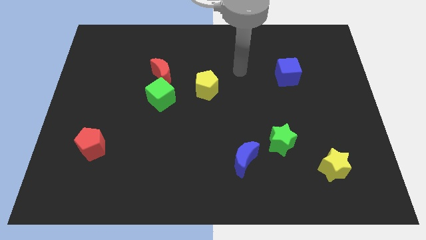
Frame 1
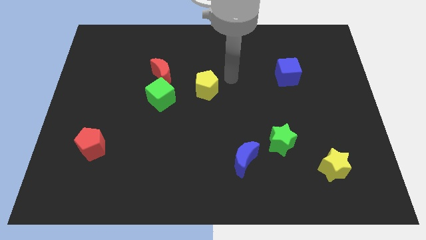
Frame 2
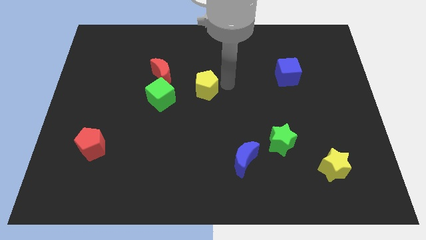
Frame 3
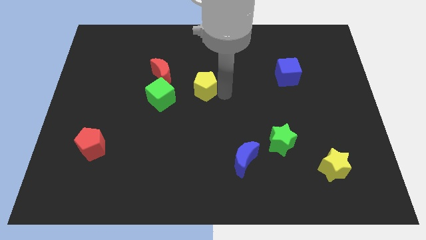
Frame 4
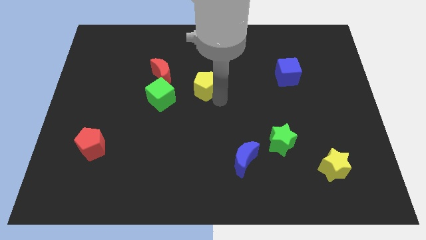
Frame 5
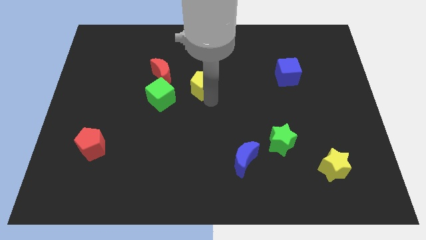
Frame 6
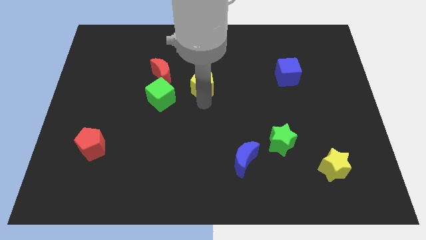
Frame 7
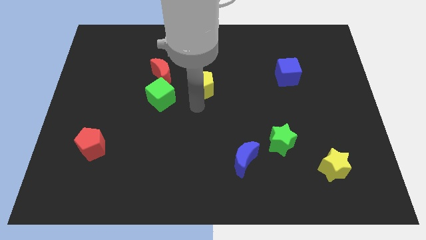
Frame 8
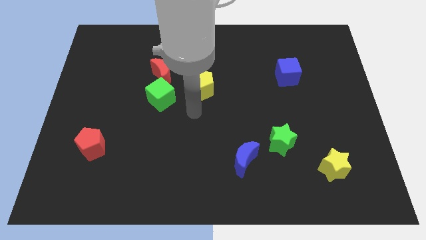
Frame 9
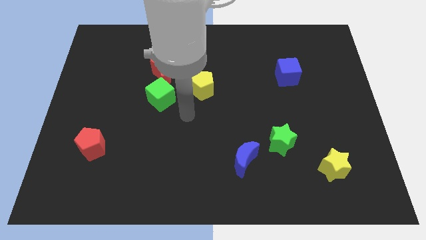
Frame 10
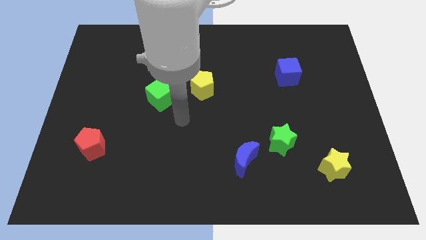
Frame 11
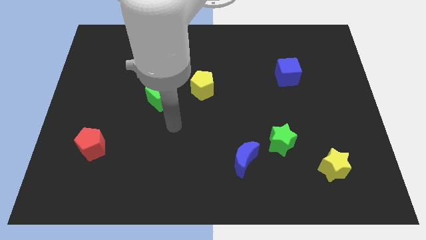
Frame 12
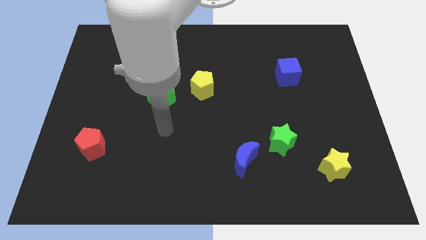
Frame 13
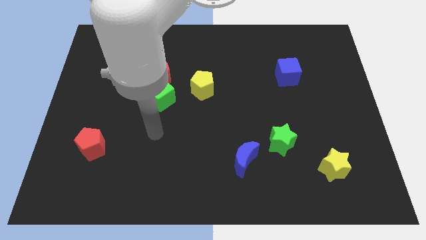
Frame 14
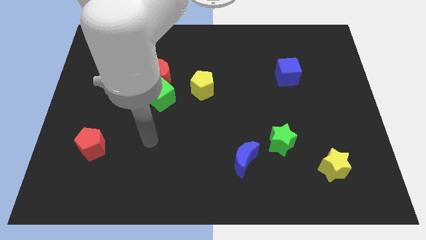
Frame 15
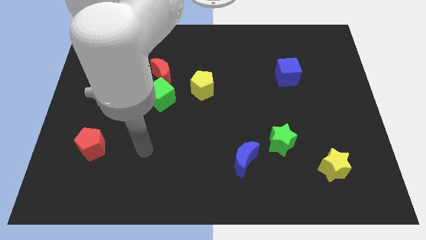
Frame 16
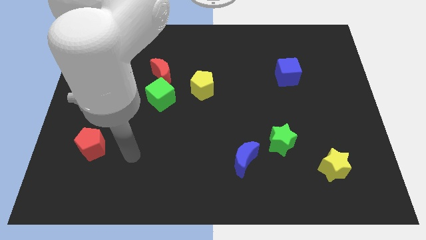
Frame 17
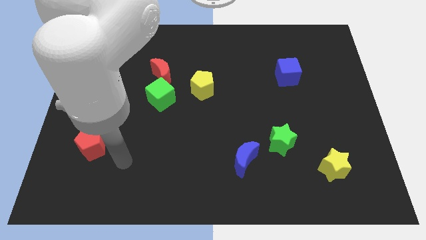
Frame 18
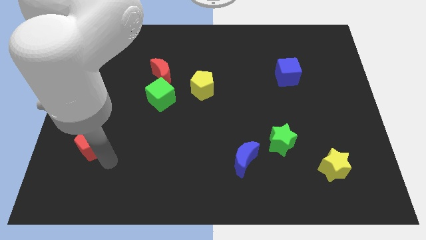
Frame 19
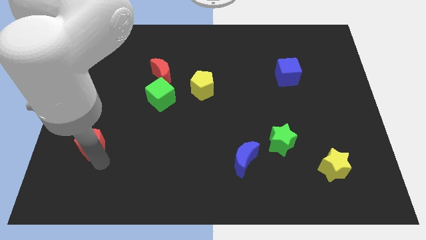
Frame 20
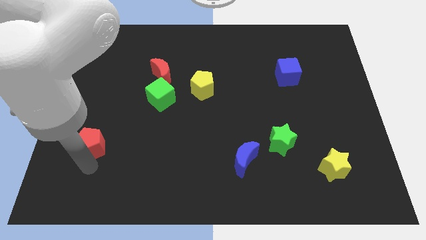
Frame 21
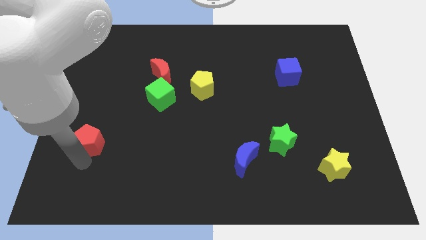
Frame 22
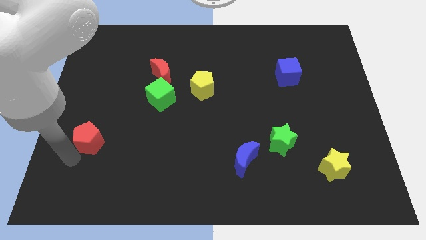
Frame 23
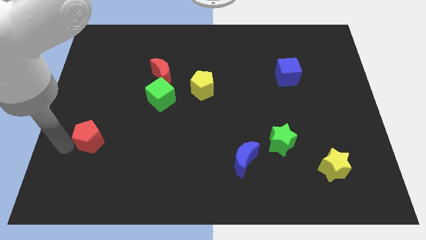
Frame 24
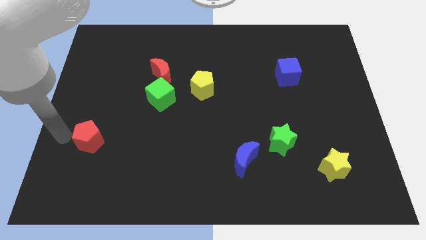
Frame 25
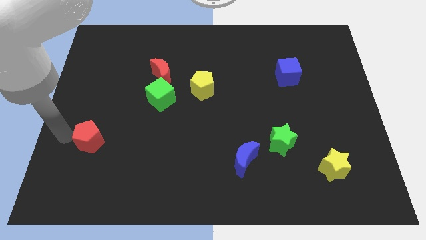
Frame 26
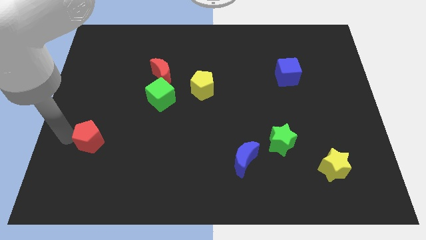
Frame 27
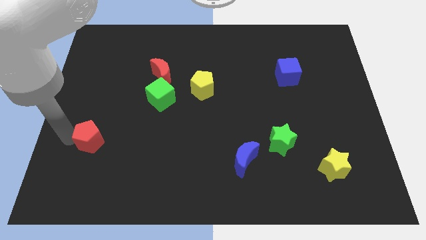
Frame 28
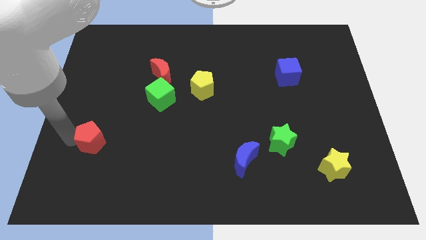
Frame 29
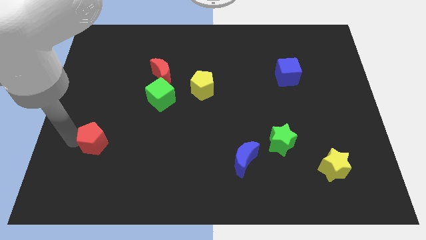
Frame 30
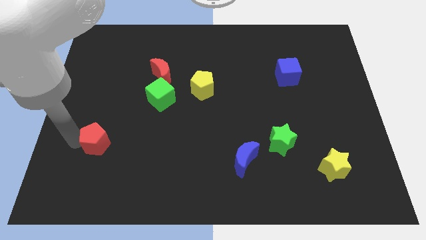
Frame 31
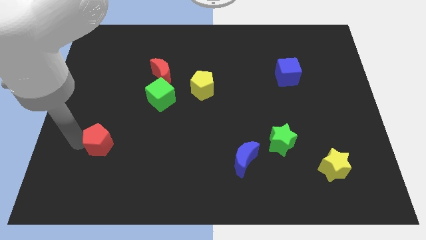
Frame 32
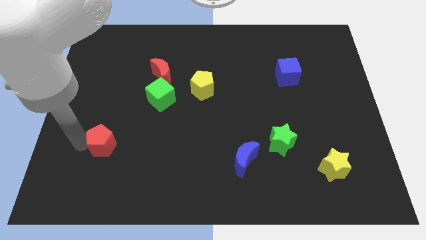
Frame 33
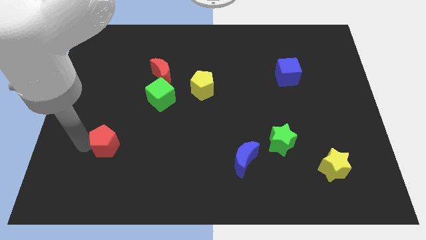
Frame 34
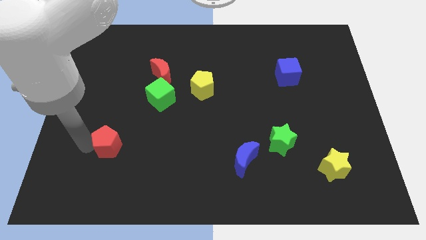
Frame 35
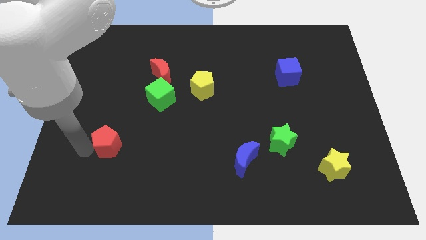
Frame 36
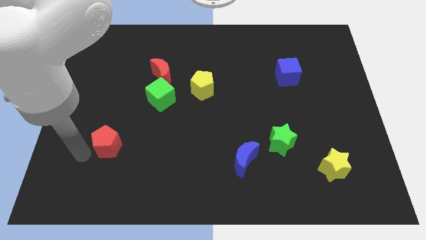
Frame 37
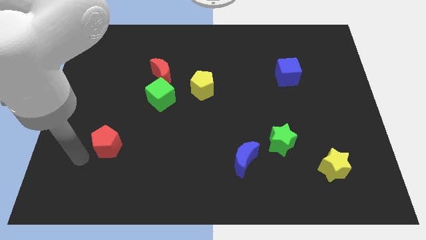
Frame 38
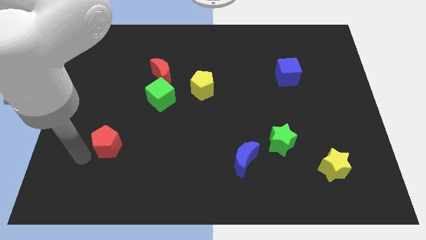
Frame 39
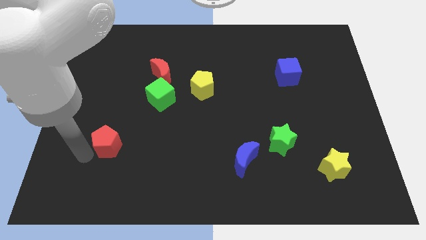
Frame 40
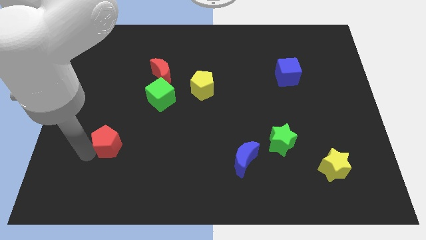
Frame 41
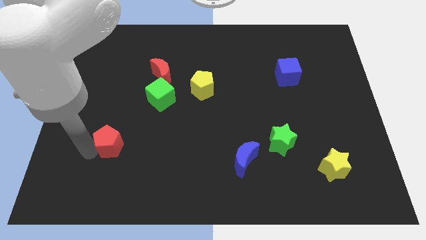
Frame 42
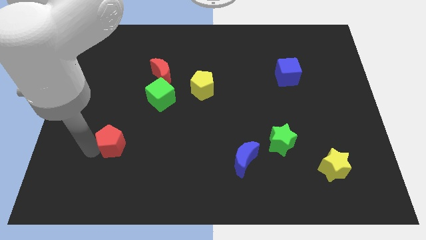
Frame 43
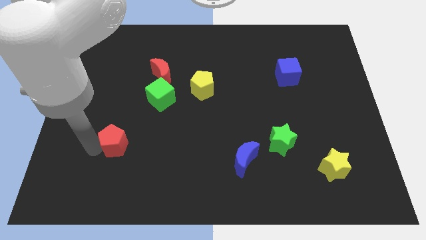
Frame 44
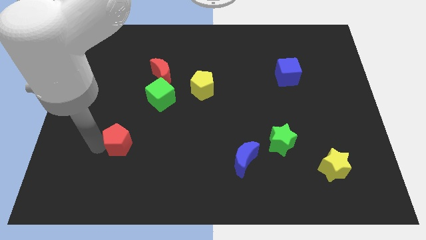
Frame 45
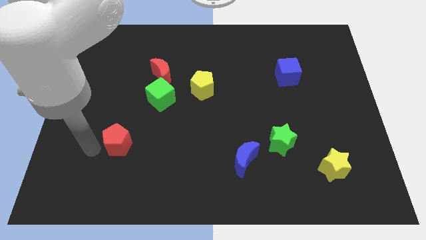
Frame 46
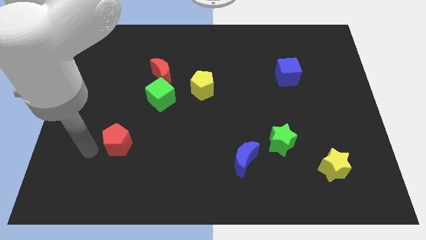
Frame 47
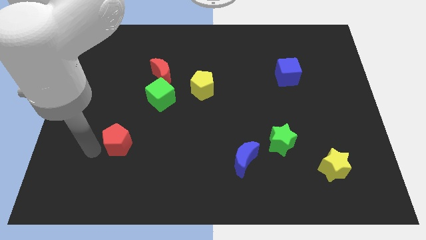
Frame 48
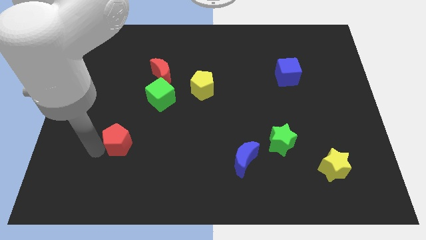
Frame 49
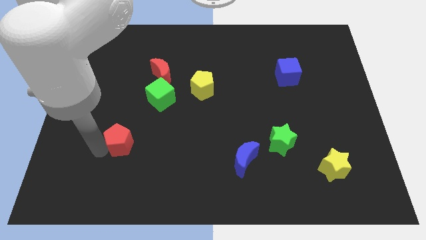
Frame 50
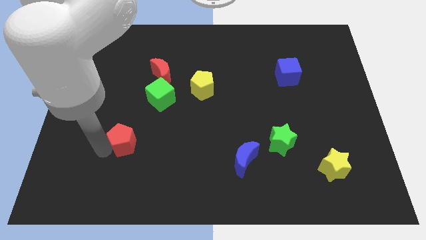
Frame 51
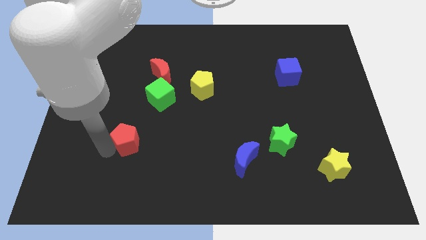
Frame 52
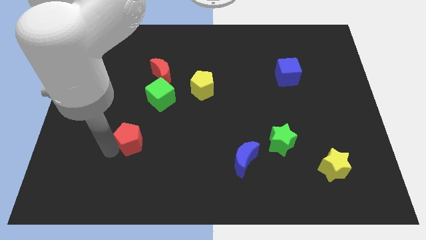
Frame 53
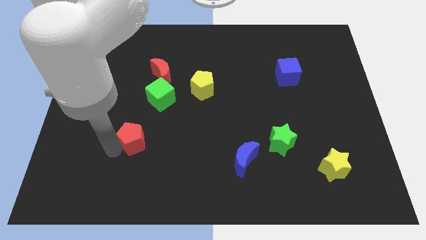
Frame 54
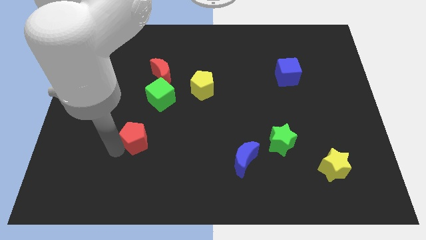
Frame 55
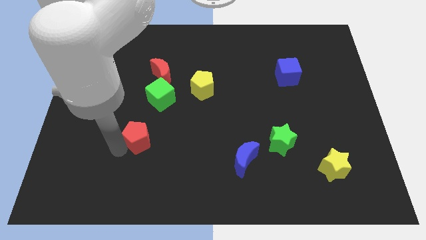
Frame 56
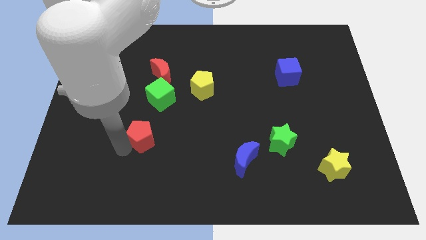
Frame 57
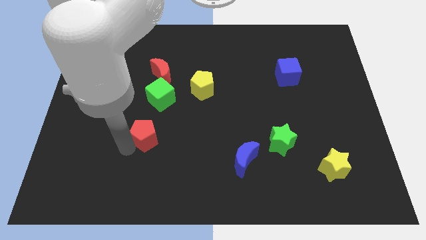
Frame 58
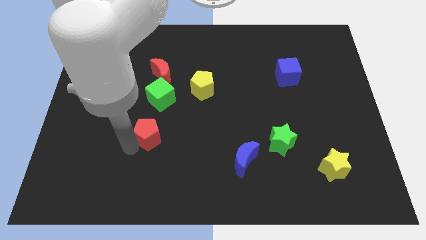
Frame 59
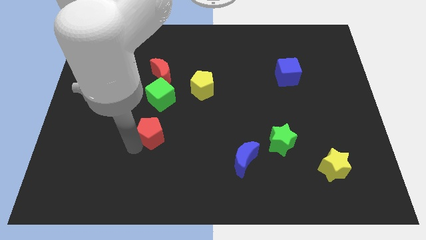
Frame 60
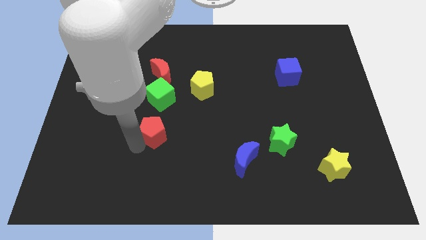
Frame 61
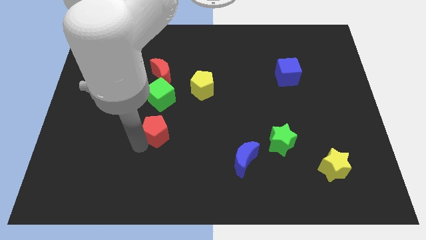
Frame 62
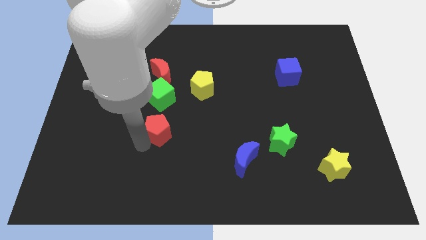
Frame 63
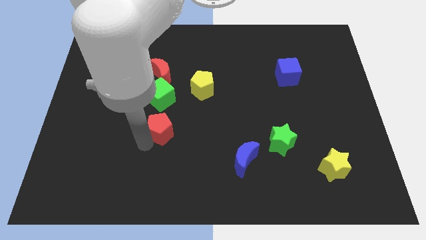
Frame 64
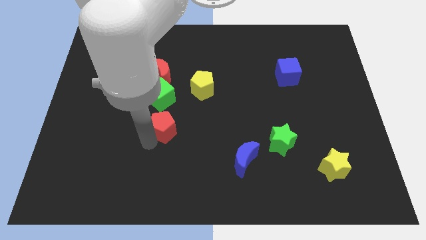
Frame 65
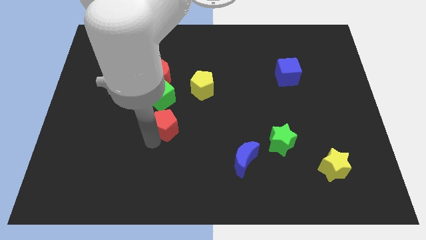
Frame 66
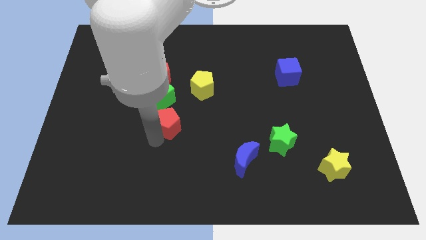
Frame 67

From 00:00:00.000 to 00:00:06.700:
move the red pentagon to the center

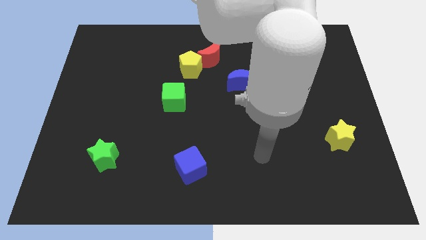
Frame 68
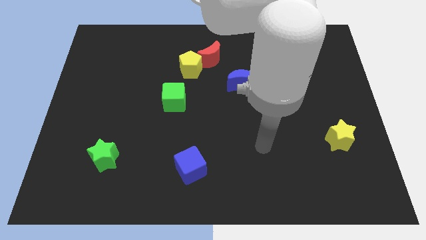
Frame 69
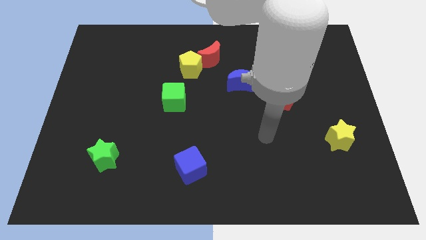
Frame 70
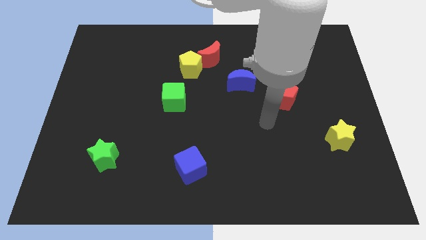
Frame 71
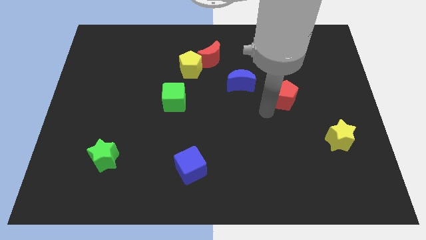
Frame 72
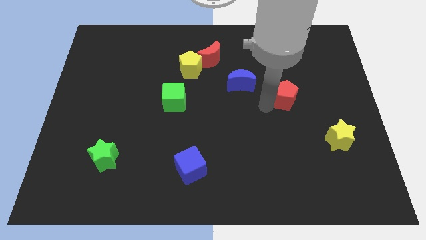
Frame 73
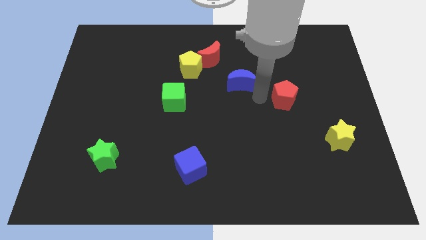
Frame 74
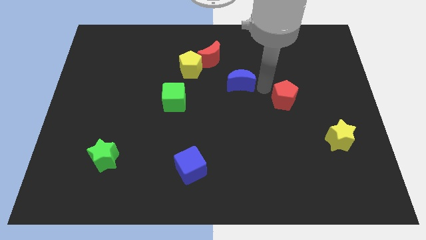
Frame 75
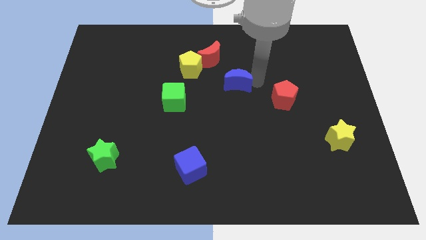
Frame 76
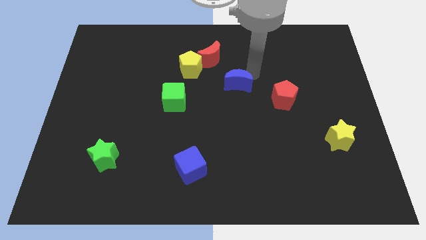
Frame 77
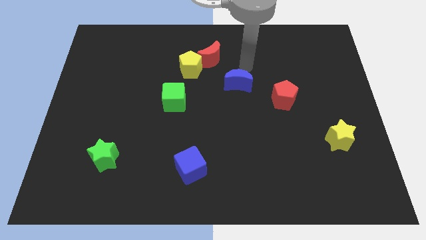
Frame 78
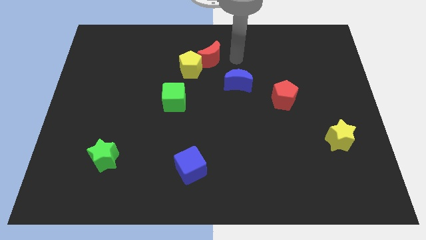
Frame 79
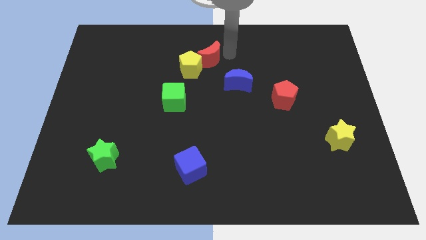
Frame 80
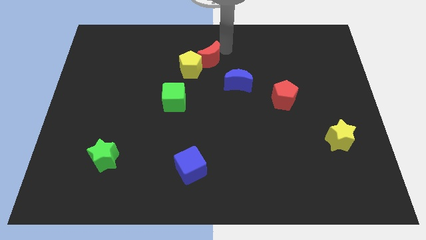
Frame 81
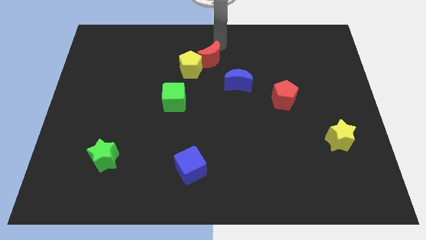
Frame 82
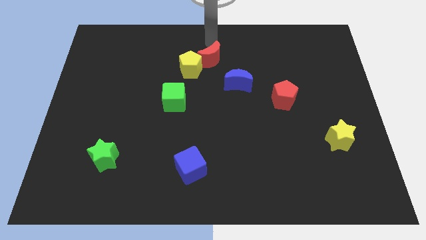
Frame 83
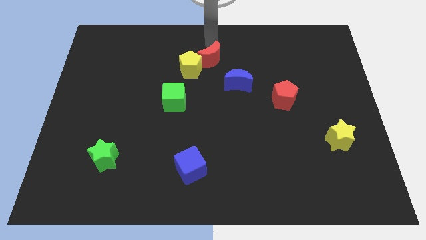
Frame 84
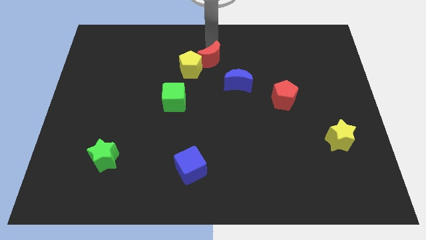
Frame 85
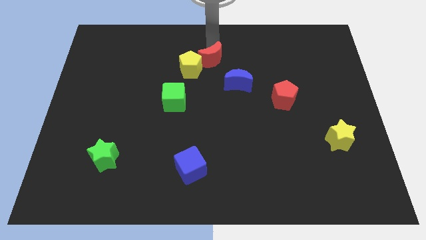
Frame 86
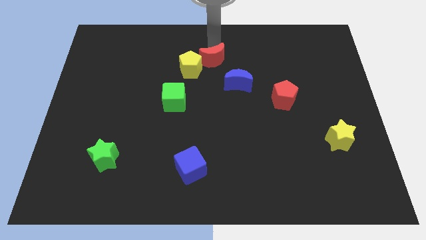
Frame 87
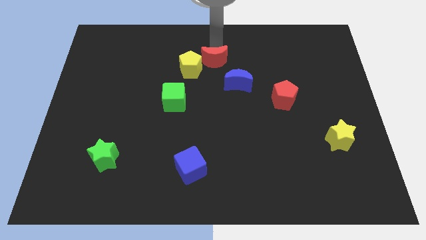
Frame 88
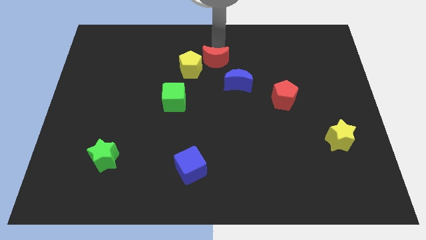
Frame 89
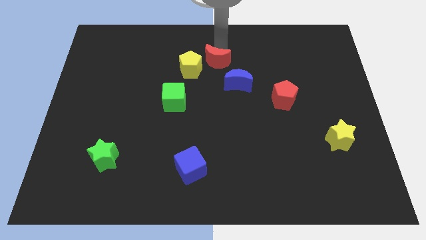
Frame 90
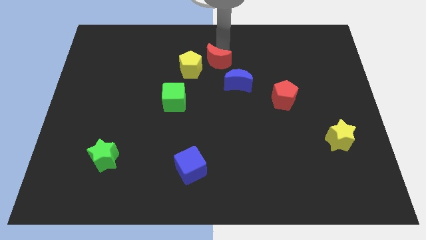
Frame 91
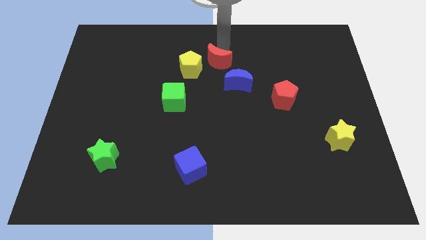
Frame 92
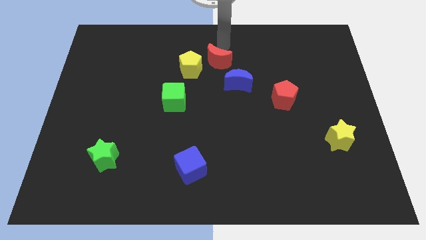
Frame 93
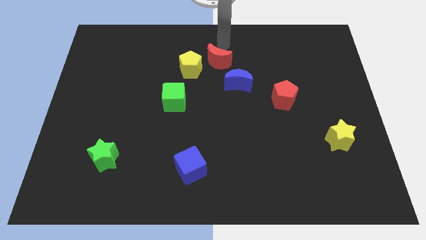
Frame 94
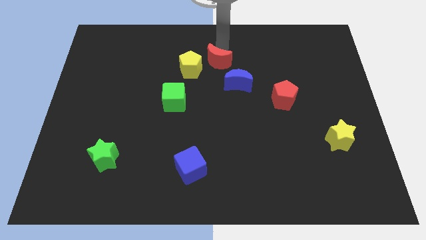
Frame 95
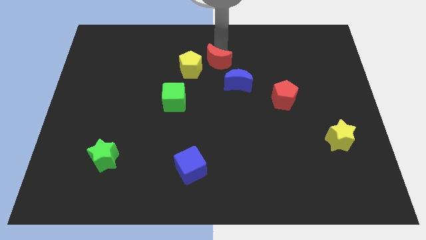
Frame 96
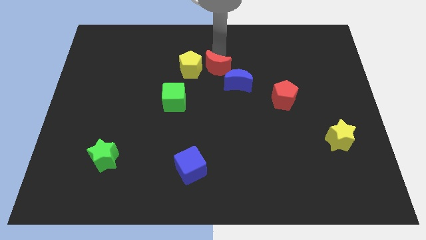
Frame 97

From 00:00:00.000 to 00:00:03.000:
slide the red moon to the middle
